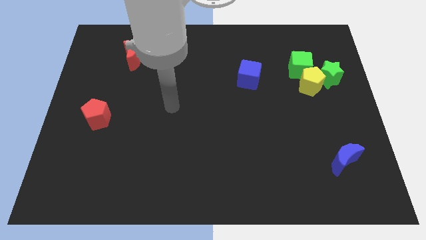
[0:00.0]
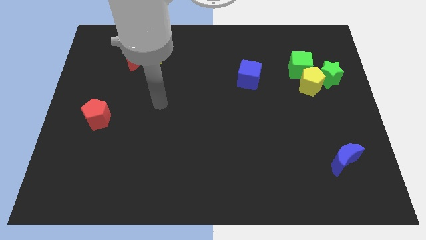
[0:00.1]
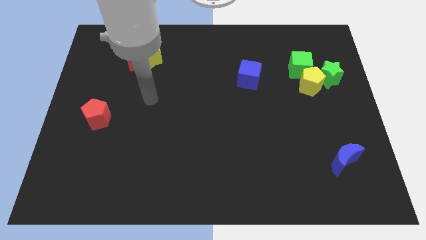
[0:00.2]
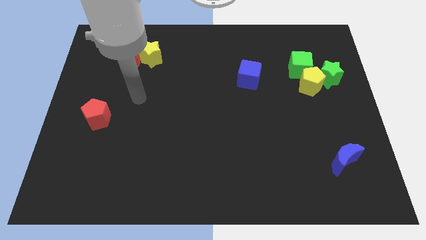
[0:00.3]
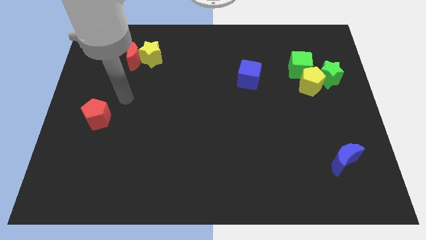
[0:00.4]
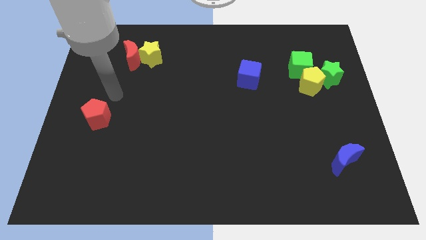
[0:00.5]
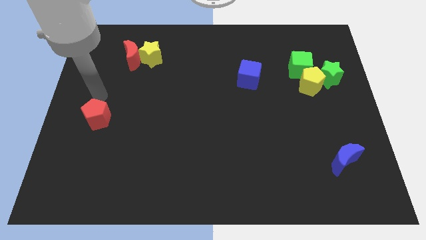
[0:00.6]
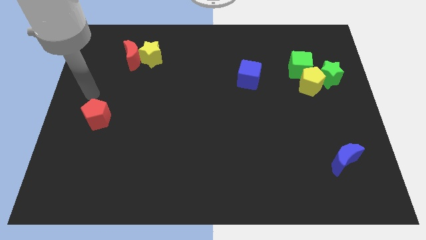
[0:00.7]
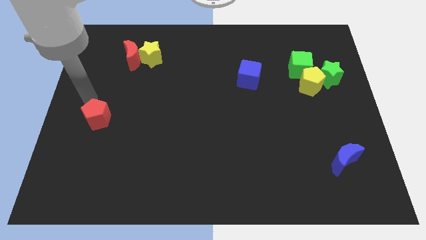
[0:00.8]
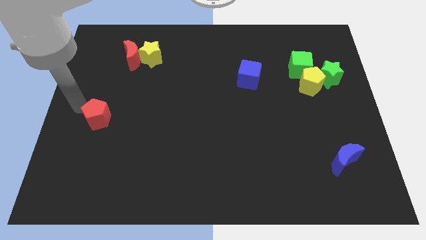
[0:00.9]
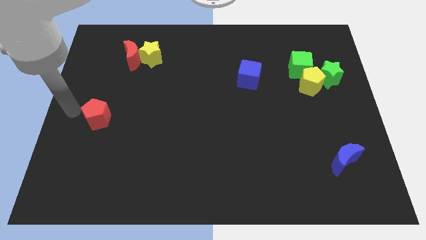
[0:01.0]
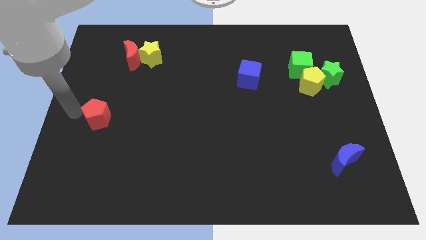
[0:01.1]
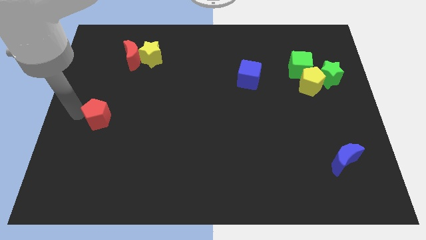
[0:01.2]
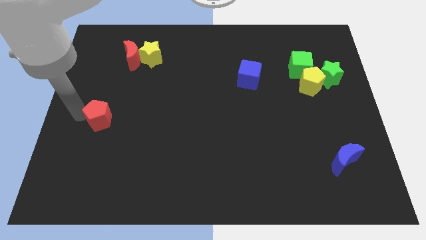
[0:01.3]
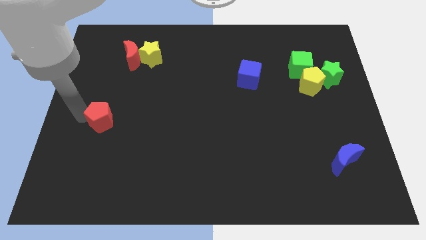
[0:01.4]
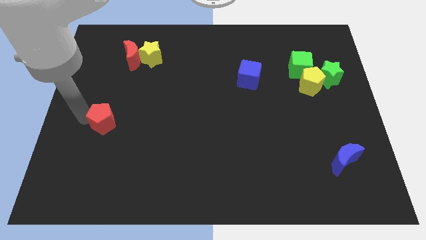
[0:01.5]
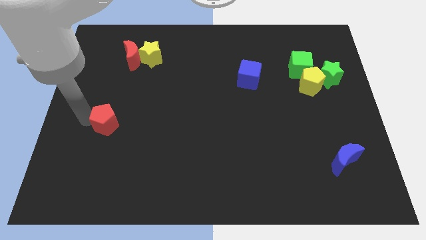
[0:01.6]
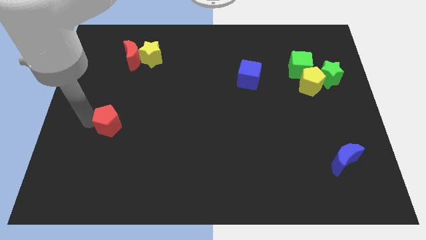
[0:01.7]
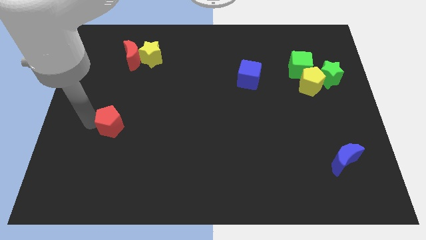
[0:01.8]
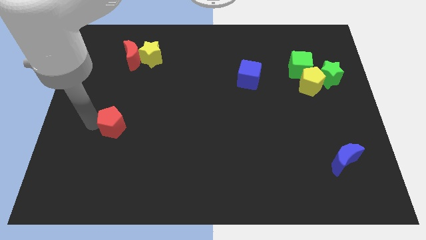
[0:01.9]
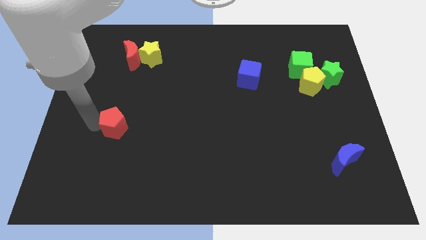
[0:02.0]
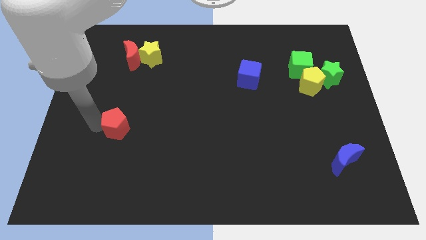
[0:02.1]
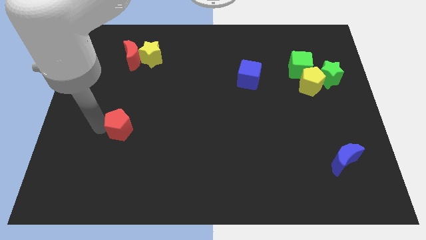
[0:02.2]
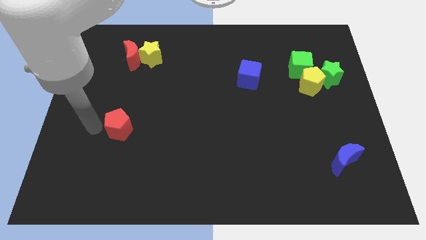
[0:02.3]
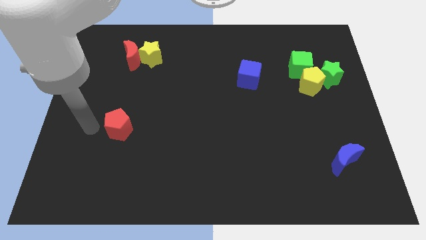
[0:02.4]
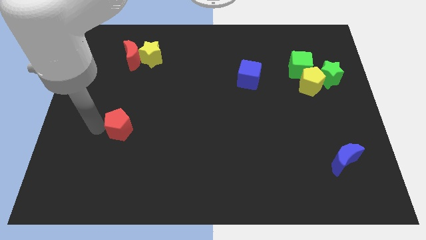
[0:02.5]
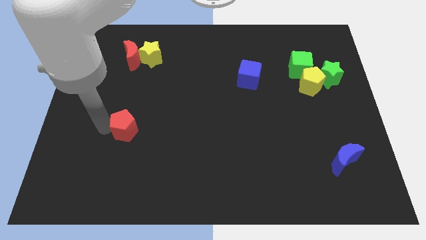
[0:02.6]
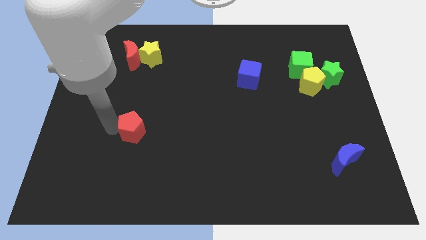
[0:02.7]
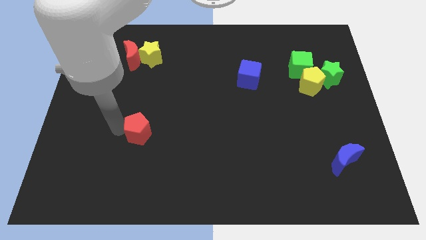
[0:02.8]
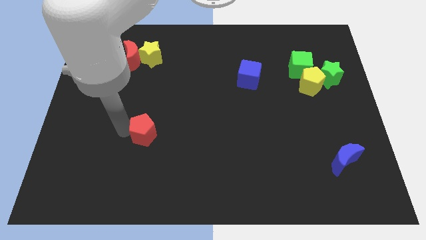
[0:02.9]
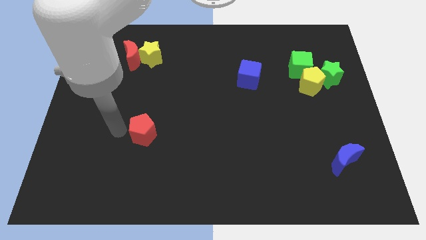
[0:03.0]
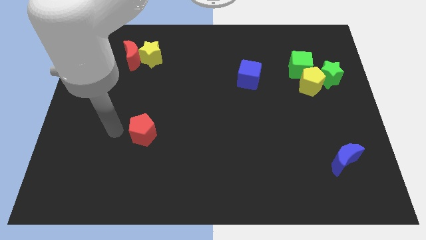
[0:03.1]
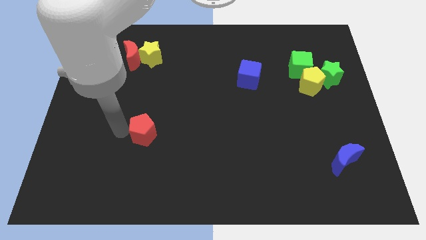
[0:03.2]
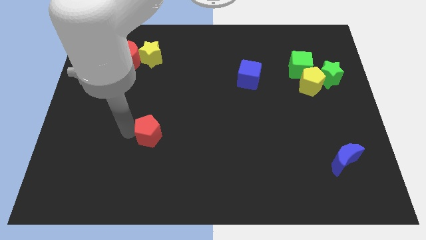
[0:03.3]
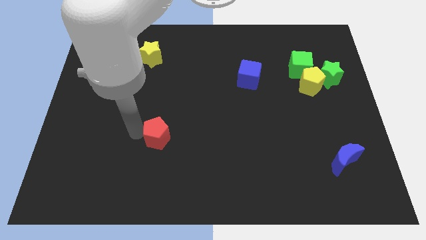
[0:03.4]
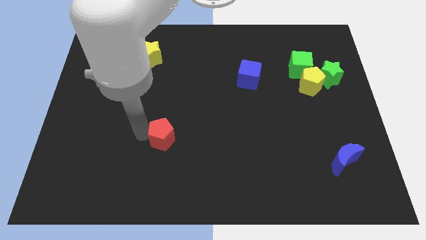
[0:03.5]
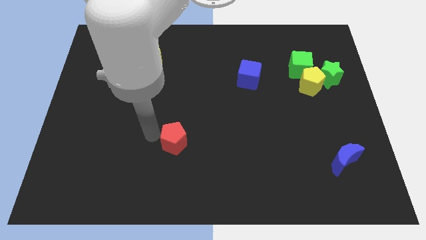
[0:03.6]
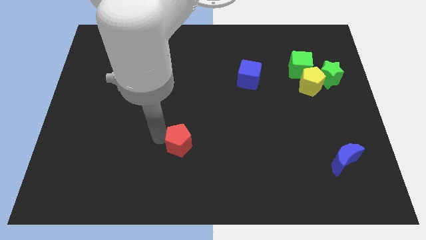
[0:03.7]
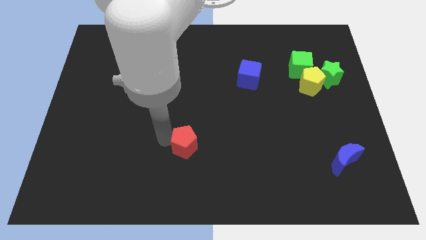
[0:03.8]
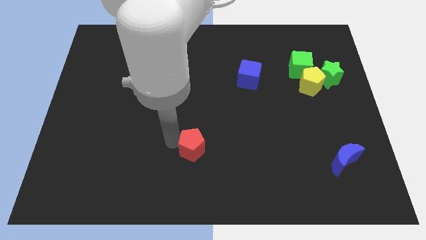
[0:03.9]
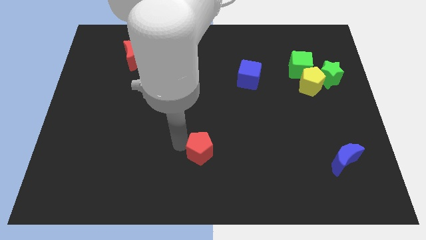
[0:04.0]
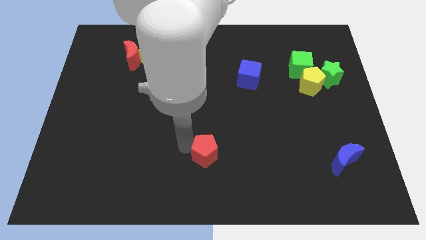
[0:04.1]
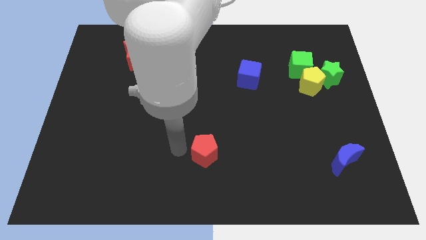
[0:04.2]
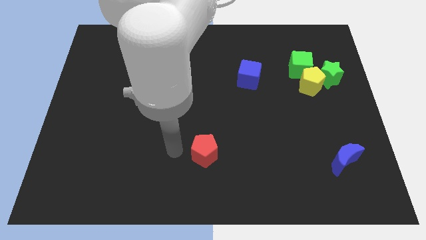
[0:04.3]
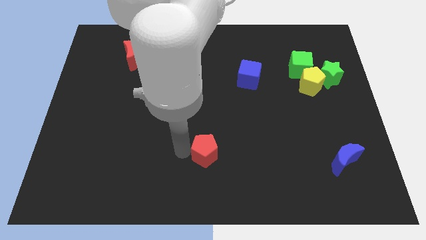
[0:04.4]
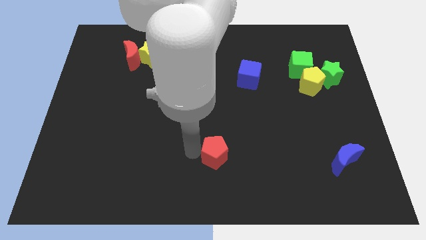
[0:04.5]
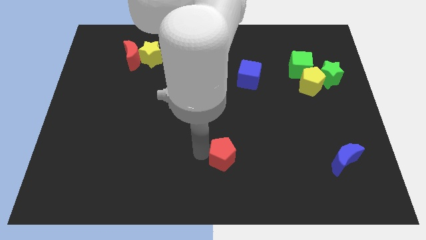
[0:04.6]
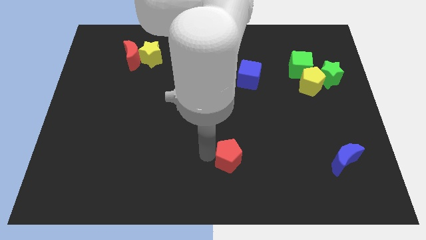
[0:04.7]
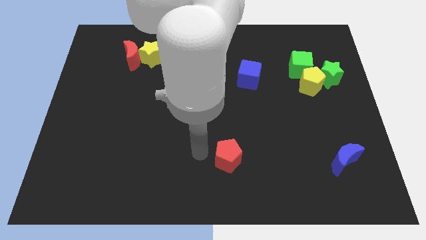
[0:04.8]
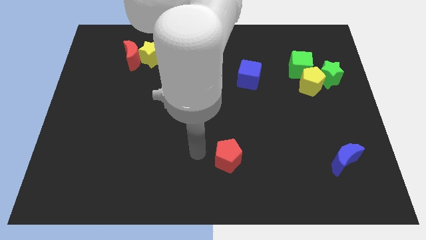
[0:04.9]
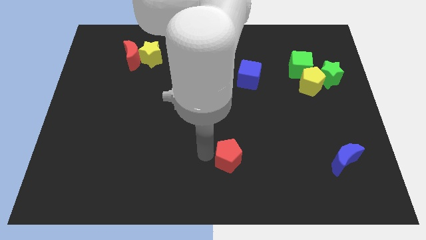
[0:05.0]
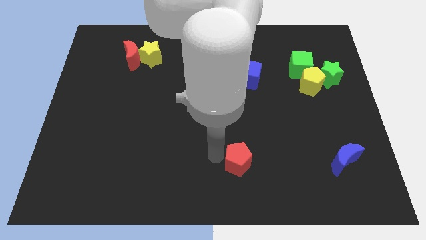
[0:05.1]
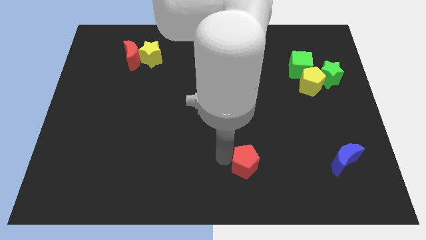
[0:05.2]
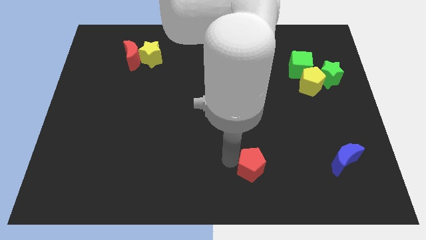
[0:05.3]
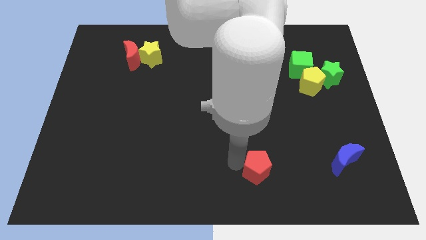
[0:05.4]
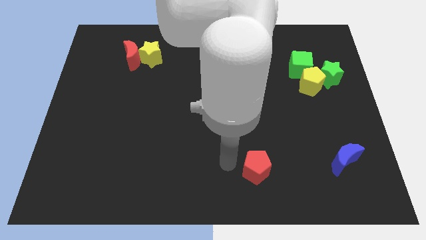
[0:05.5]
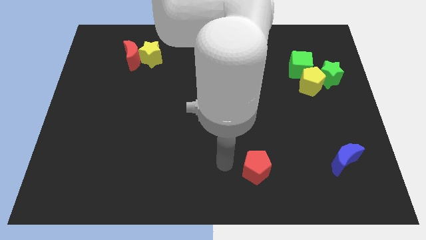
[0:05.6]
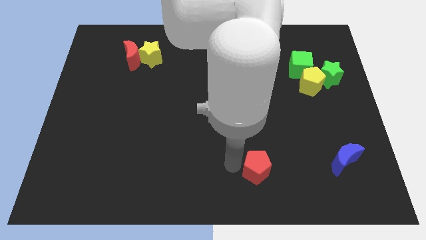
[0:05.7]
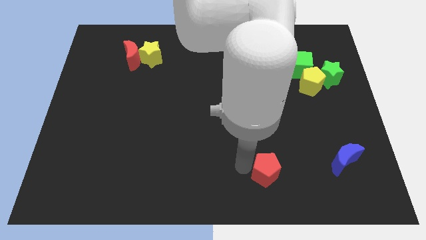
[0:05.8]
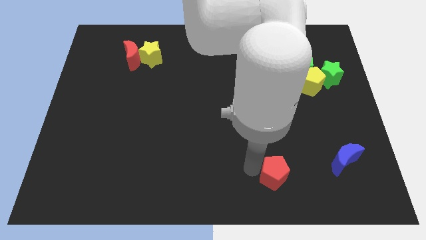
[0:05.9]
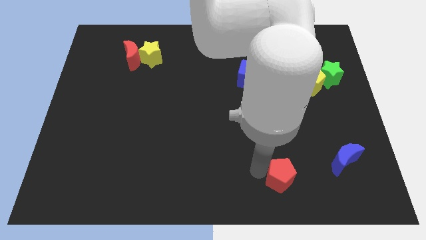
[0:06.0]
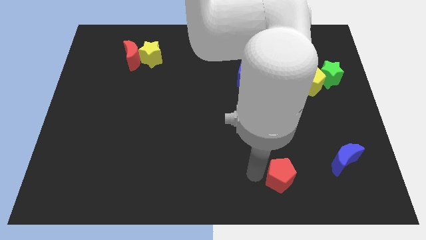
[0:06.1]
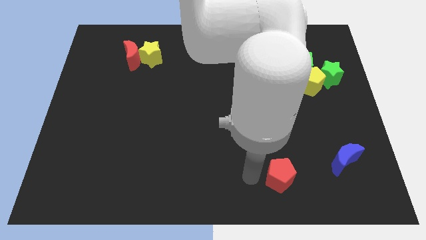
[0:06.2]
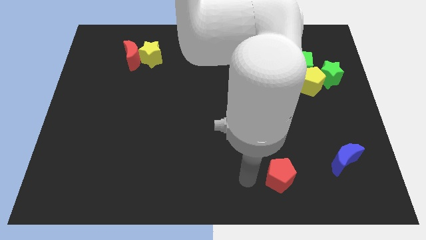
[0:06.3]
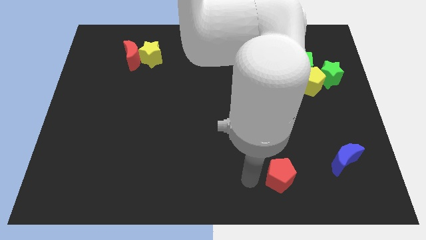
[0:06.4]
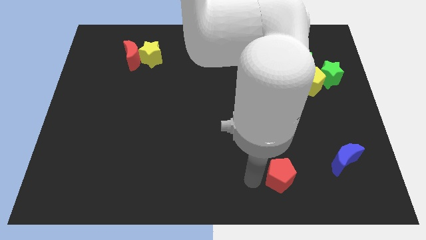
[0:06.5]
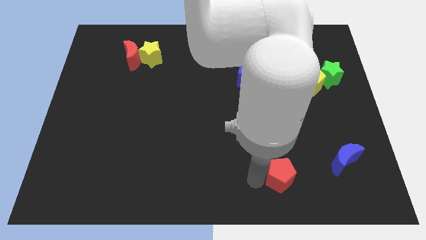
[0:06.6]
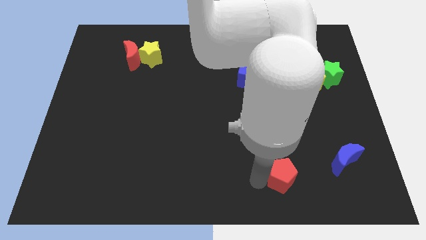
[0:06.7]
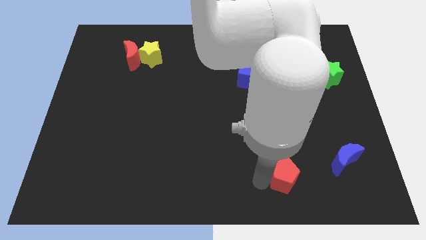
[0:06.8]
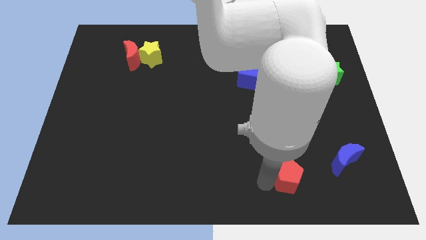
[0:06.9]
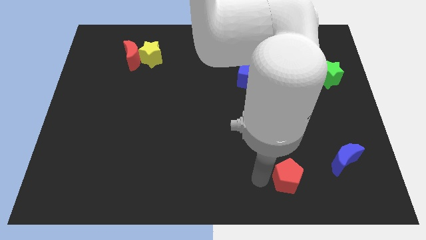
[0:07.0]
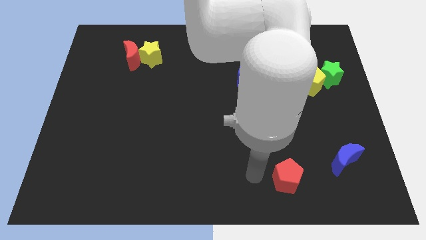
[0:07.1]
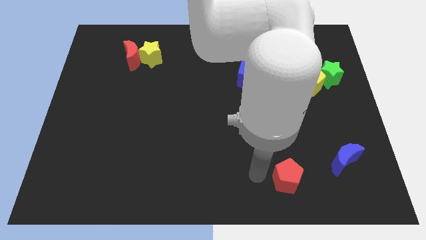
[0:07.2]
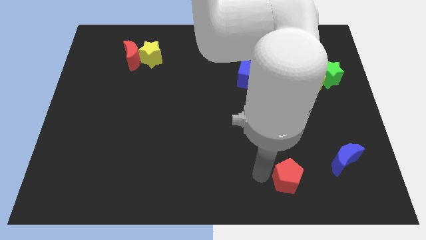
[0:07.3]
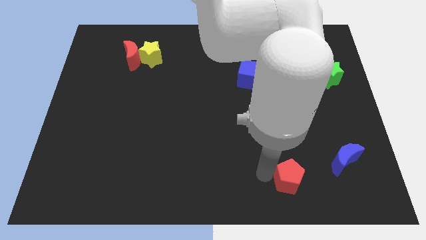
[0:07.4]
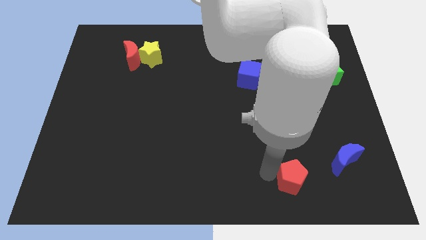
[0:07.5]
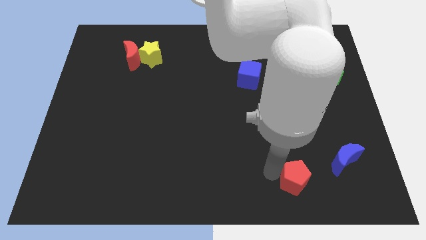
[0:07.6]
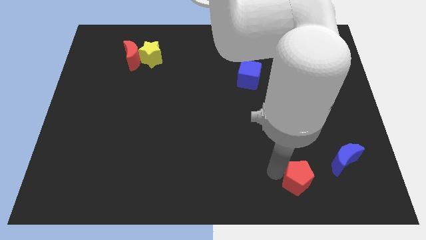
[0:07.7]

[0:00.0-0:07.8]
slide the red pentagon diagonally down and to the left of the blue moon
